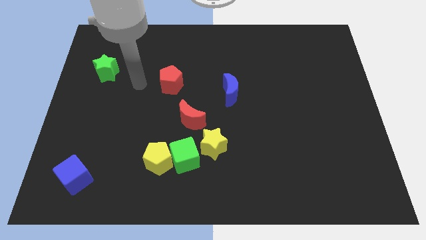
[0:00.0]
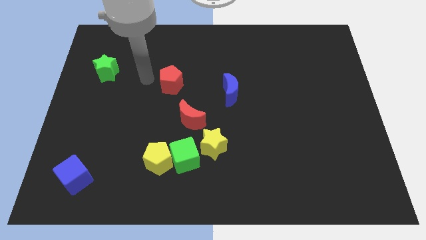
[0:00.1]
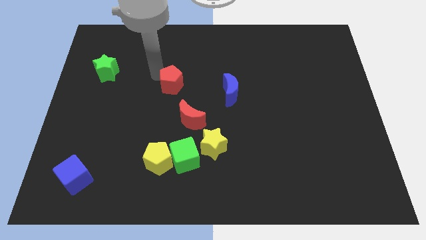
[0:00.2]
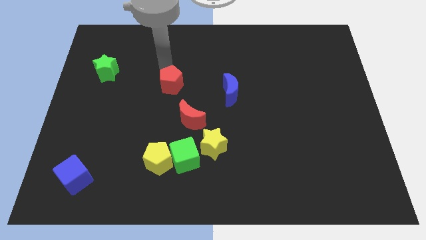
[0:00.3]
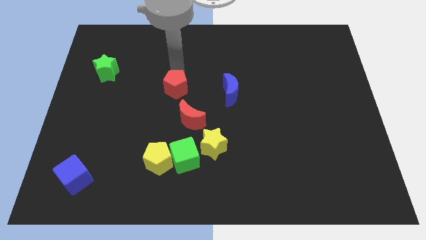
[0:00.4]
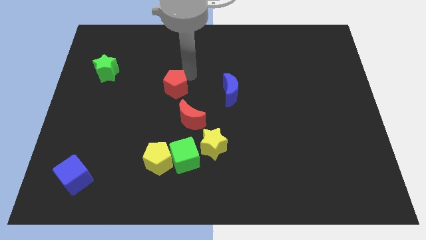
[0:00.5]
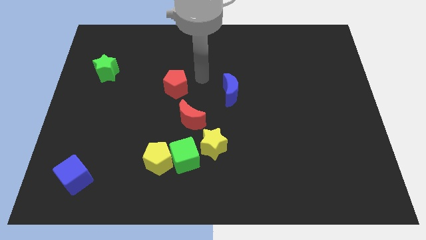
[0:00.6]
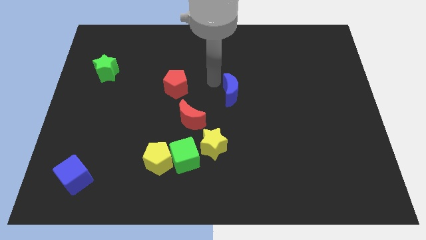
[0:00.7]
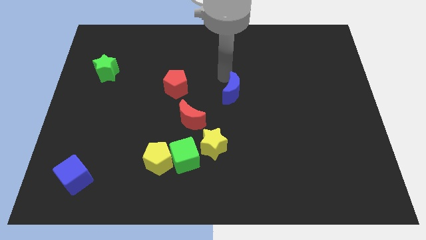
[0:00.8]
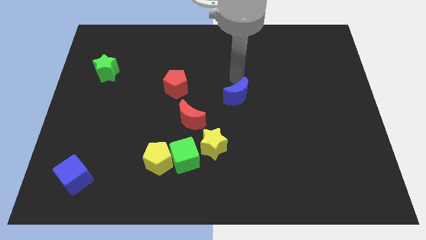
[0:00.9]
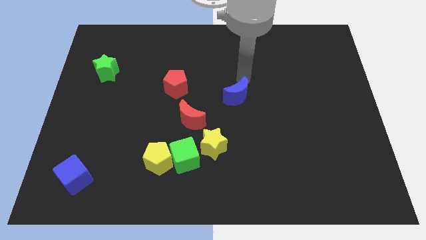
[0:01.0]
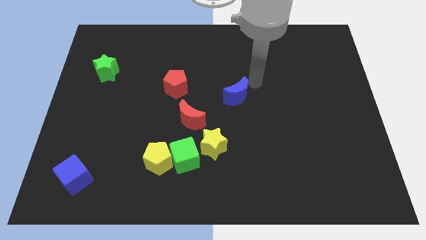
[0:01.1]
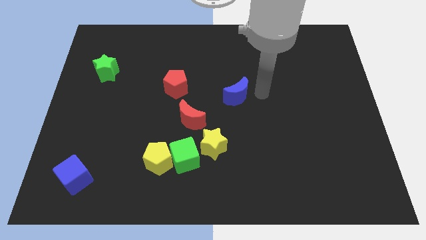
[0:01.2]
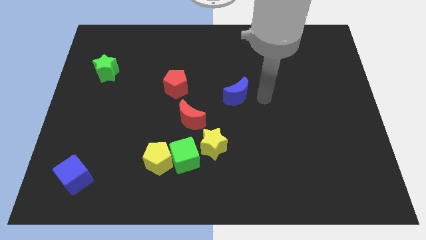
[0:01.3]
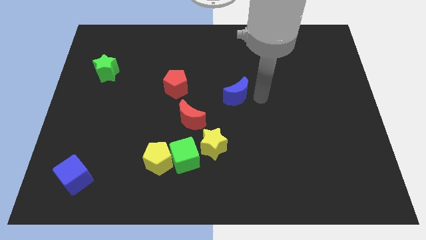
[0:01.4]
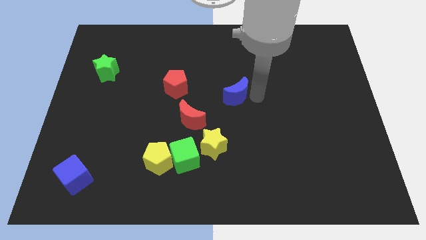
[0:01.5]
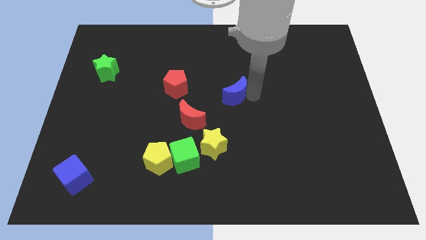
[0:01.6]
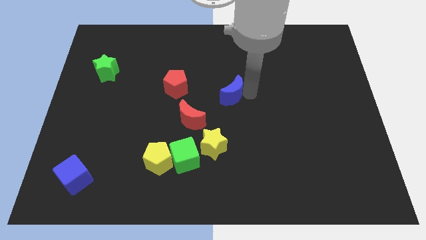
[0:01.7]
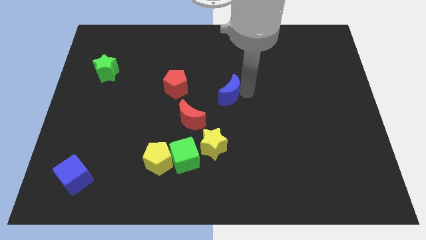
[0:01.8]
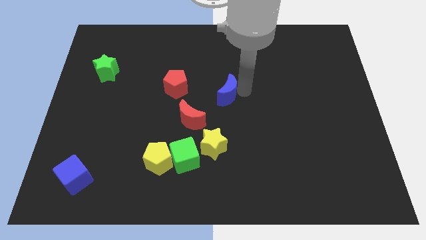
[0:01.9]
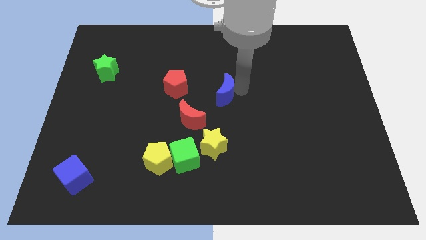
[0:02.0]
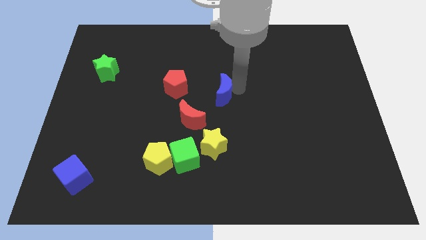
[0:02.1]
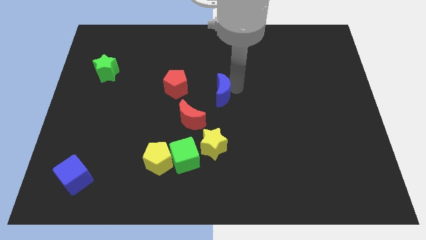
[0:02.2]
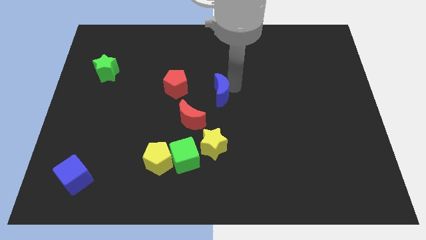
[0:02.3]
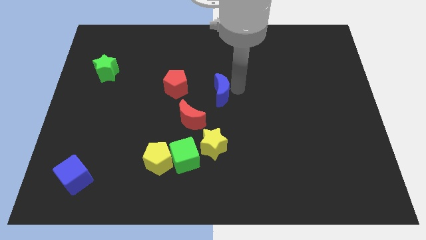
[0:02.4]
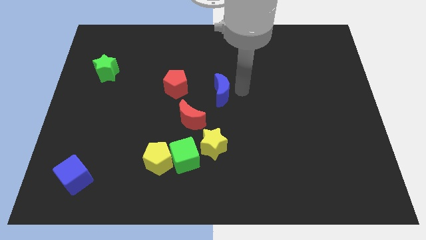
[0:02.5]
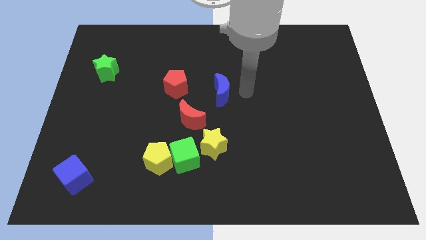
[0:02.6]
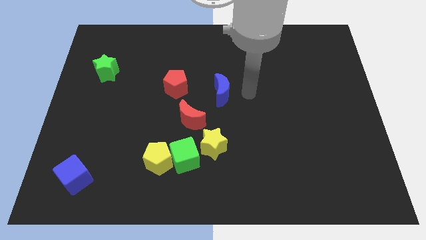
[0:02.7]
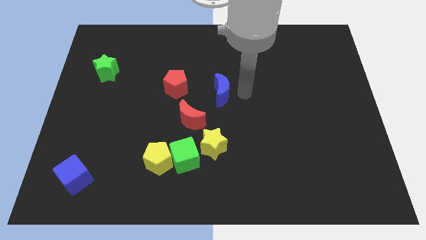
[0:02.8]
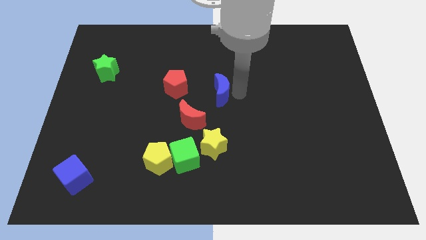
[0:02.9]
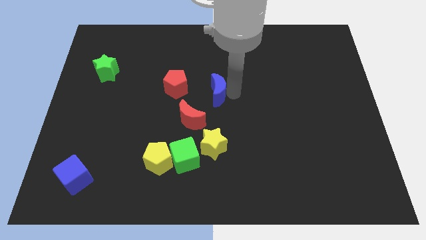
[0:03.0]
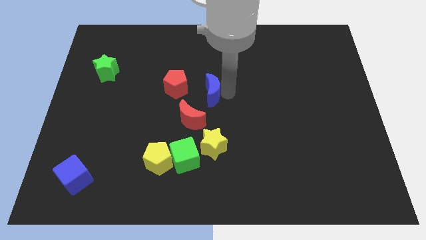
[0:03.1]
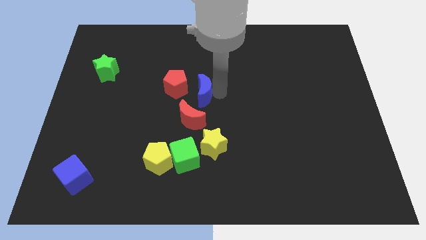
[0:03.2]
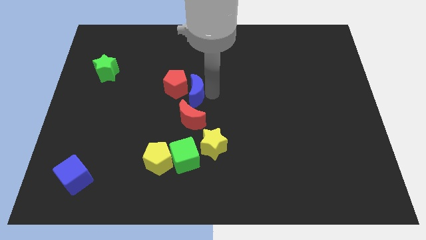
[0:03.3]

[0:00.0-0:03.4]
slightly slide the blue moon to the left

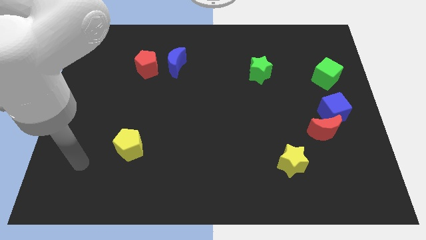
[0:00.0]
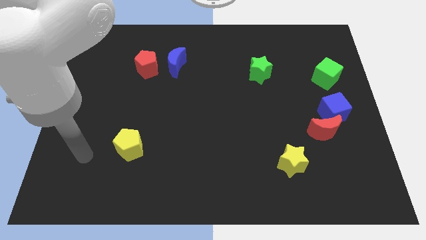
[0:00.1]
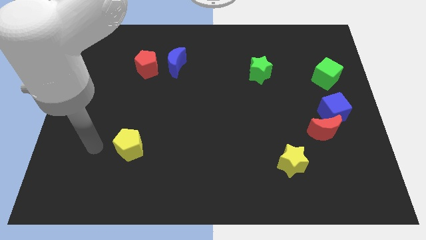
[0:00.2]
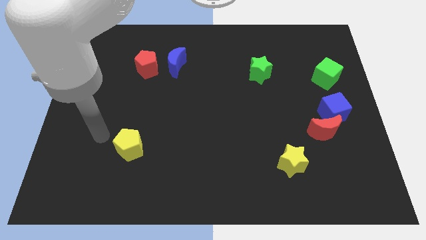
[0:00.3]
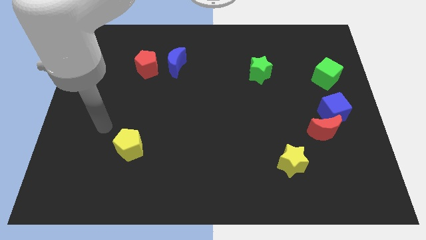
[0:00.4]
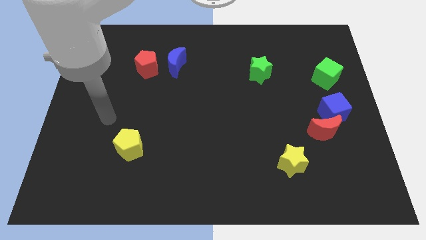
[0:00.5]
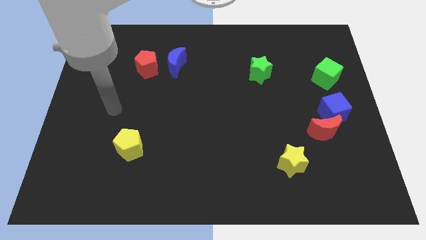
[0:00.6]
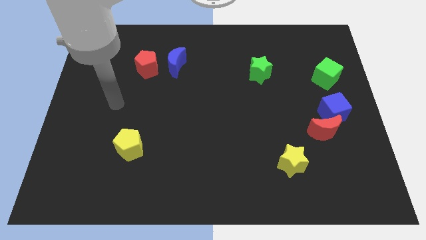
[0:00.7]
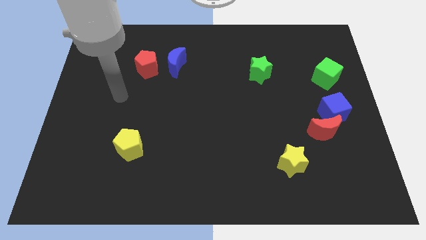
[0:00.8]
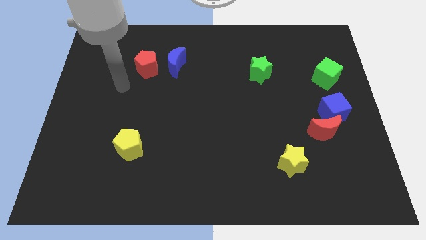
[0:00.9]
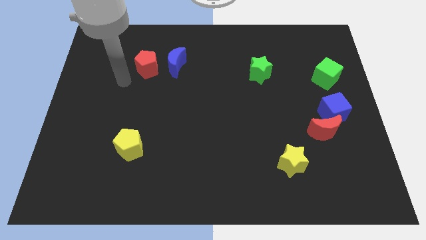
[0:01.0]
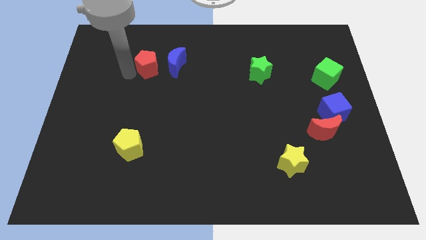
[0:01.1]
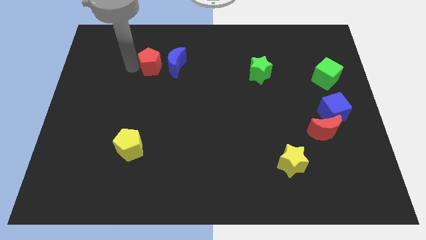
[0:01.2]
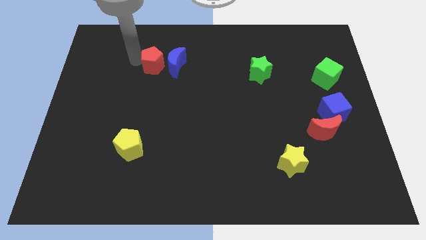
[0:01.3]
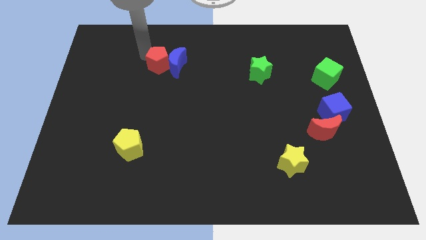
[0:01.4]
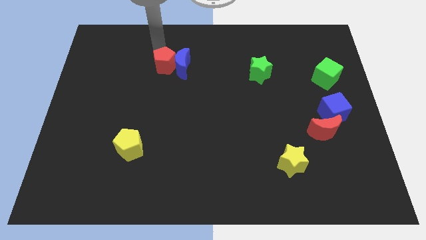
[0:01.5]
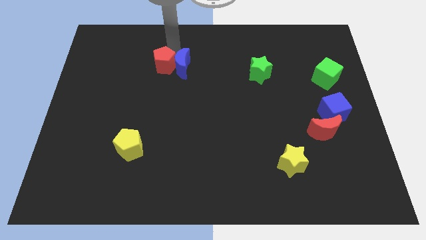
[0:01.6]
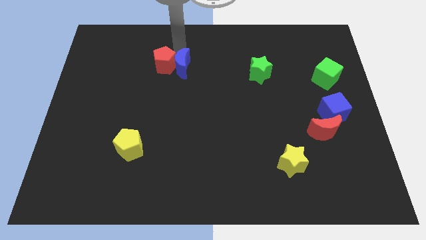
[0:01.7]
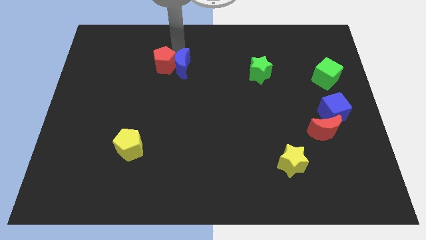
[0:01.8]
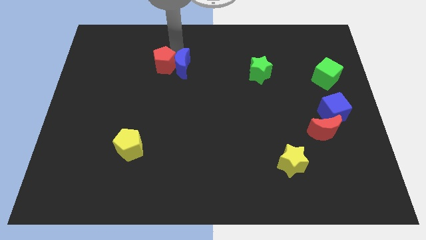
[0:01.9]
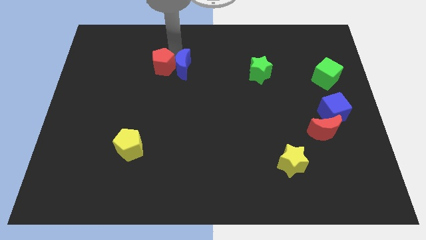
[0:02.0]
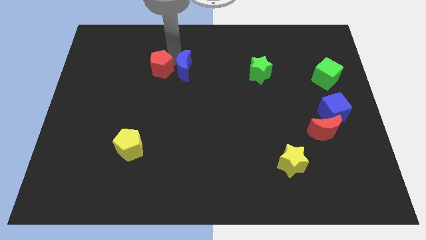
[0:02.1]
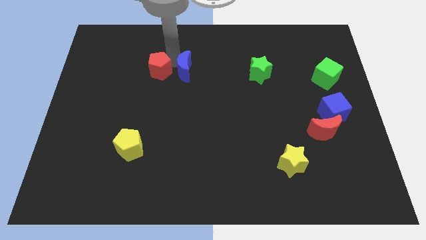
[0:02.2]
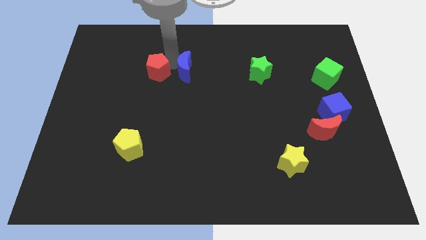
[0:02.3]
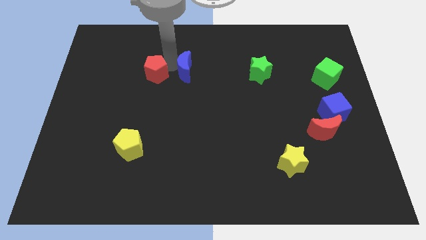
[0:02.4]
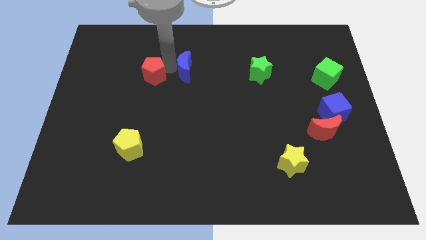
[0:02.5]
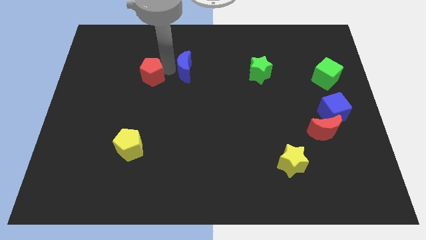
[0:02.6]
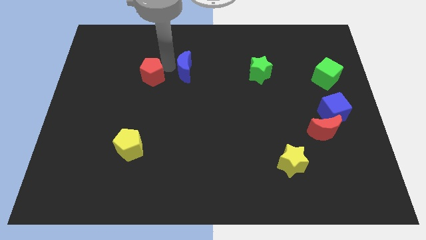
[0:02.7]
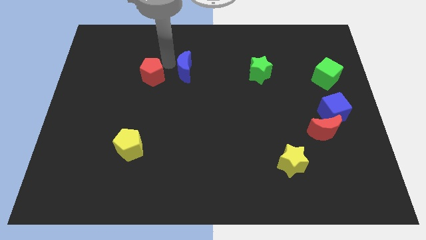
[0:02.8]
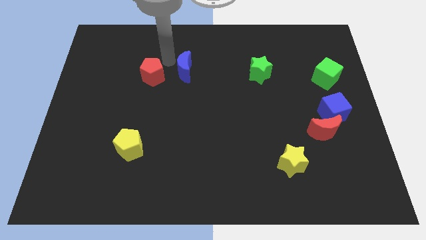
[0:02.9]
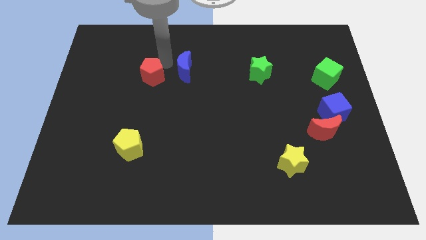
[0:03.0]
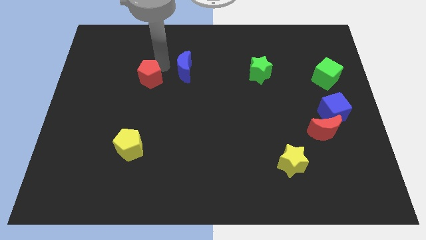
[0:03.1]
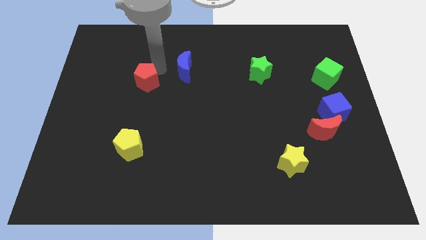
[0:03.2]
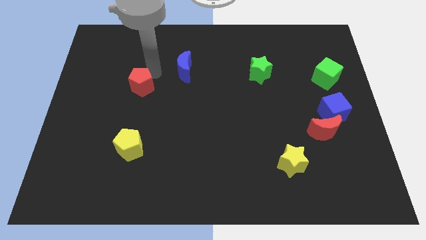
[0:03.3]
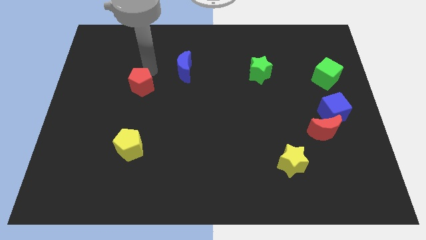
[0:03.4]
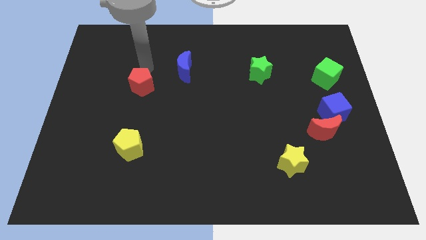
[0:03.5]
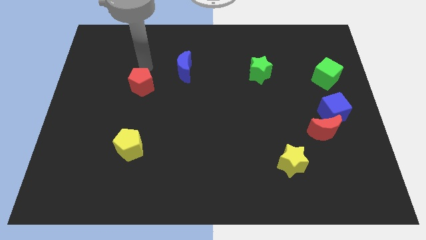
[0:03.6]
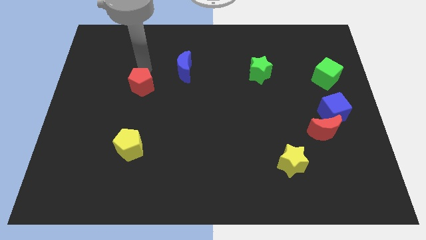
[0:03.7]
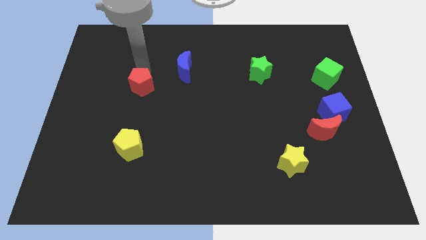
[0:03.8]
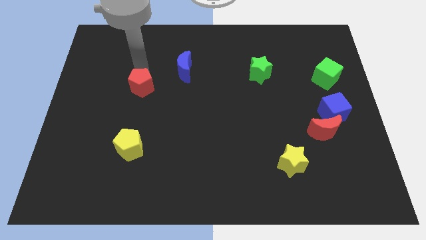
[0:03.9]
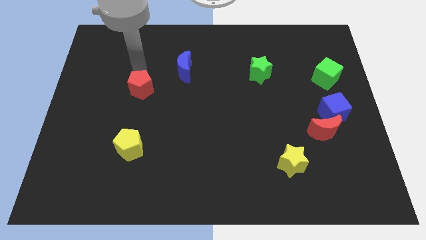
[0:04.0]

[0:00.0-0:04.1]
move the red pentagon a little downwards

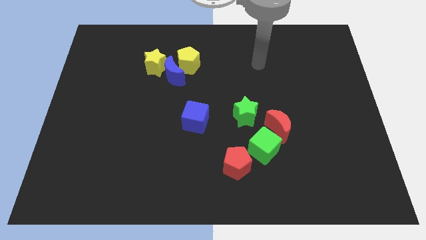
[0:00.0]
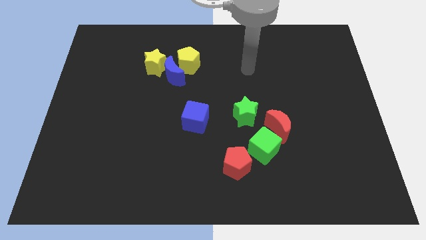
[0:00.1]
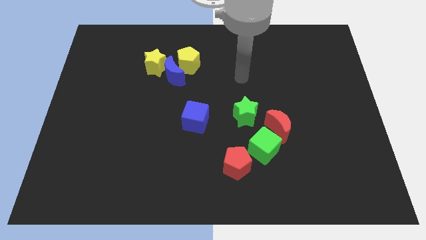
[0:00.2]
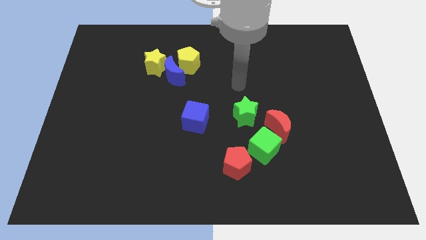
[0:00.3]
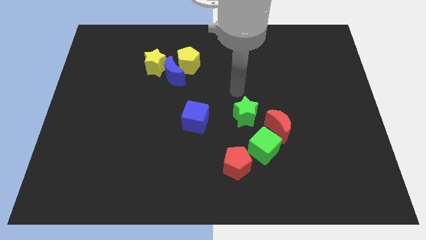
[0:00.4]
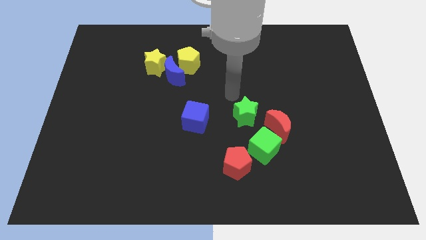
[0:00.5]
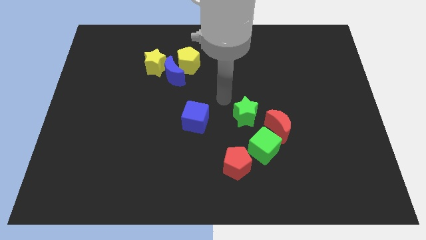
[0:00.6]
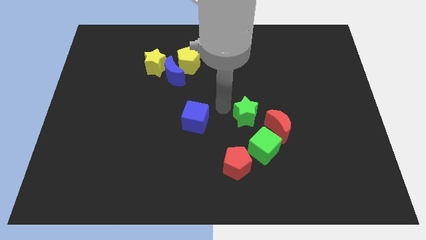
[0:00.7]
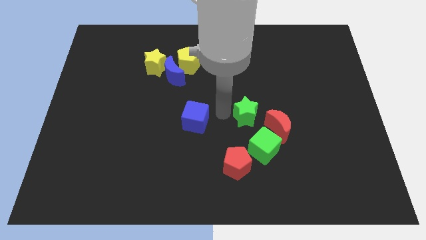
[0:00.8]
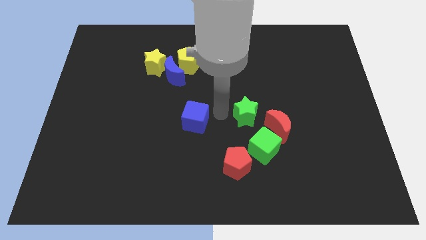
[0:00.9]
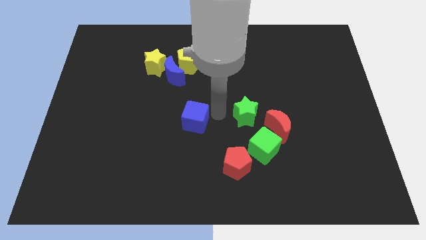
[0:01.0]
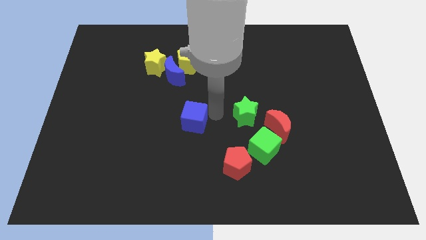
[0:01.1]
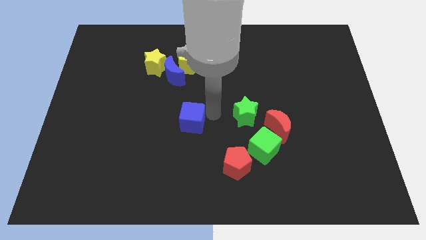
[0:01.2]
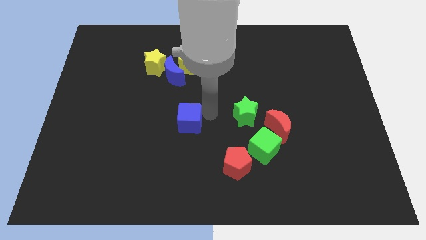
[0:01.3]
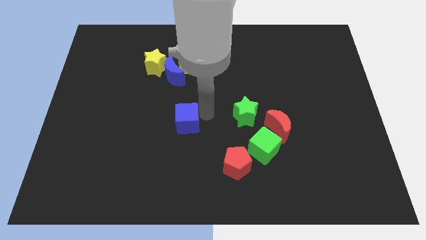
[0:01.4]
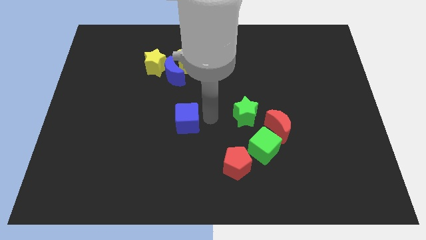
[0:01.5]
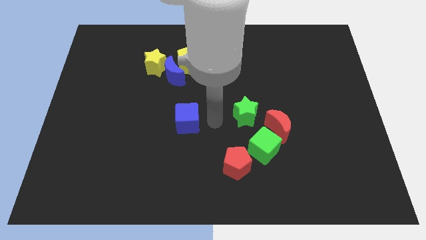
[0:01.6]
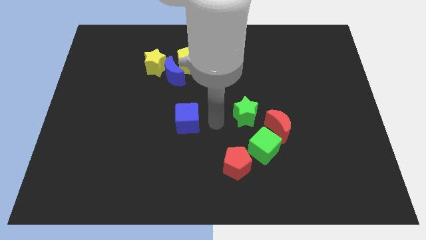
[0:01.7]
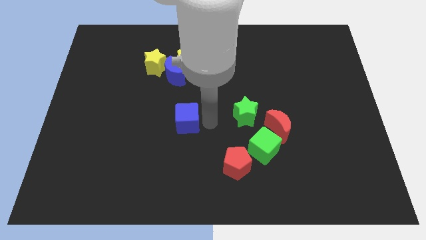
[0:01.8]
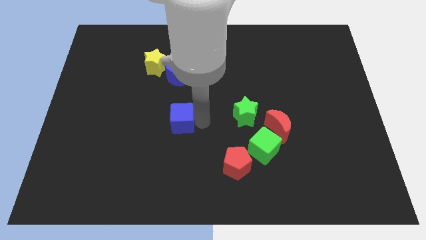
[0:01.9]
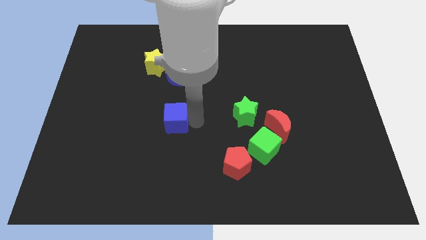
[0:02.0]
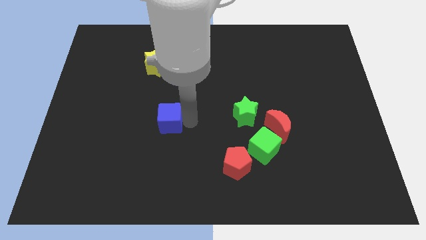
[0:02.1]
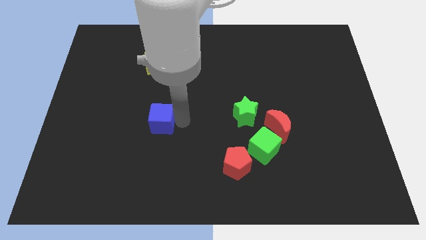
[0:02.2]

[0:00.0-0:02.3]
push the blue cube to the left a little bit
